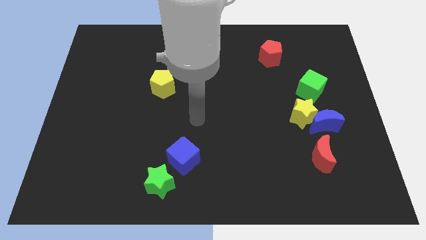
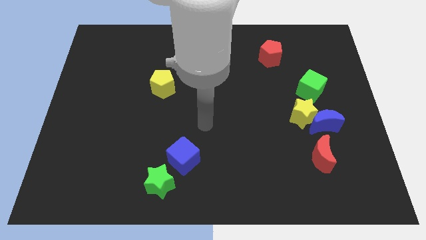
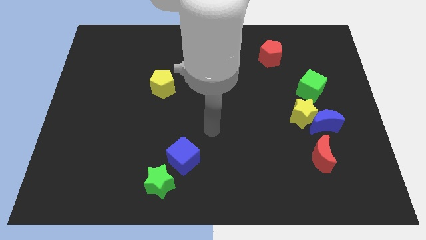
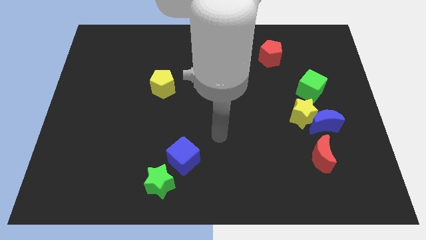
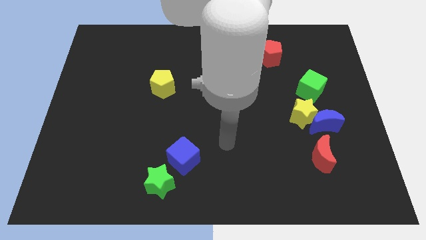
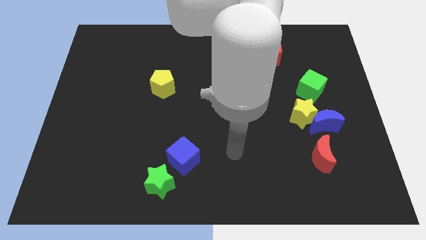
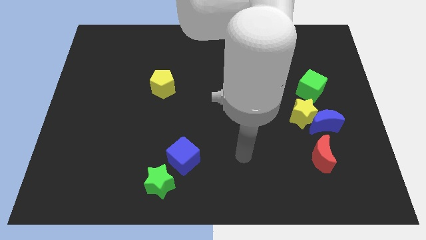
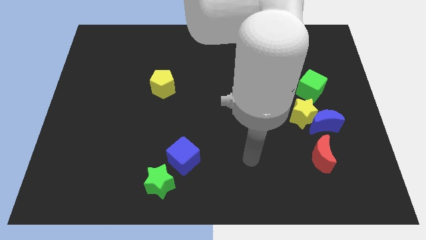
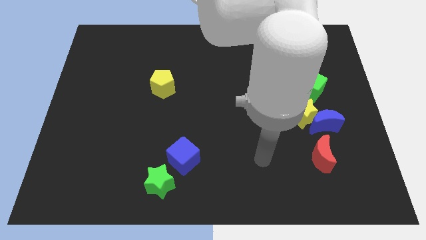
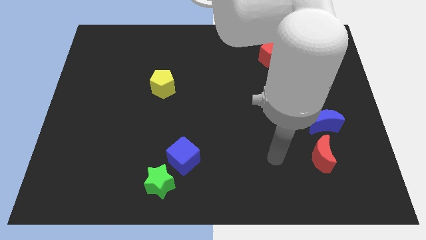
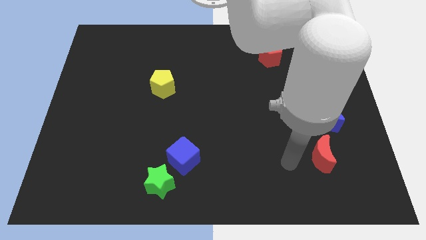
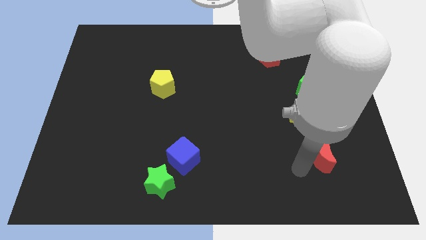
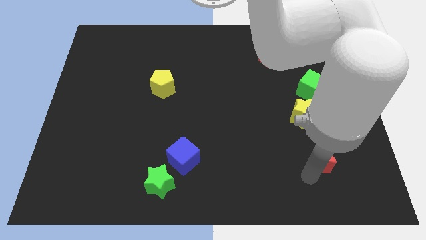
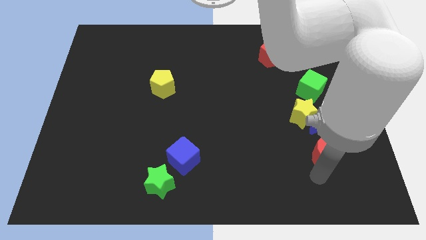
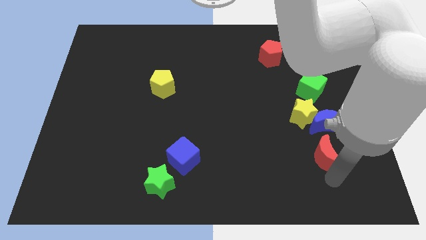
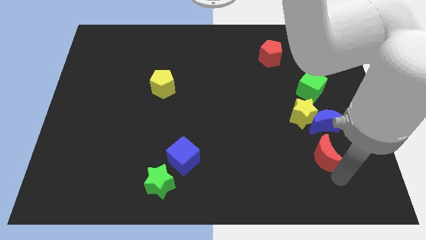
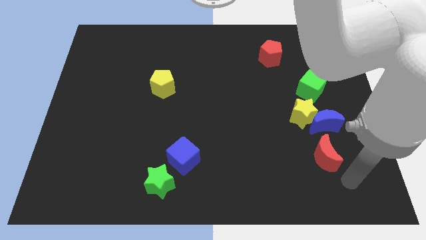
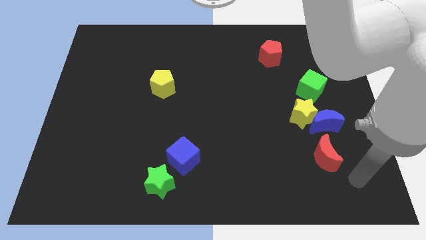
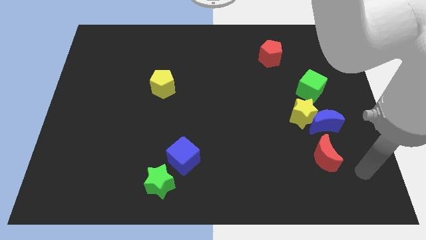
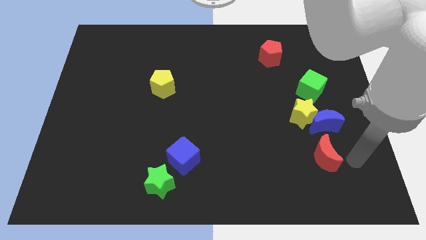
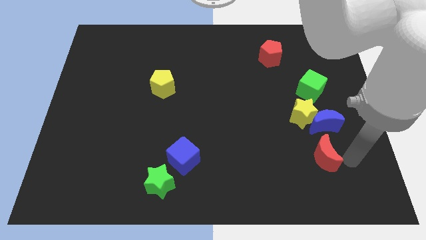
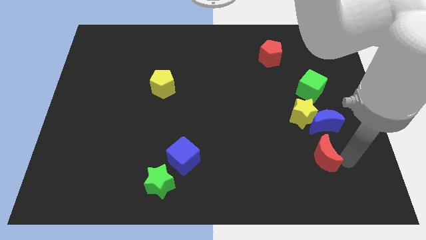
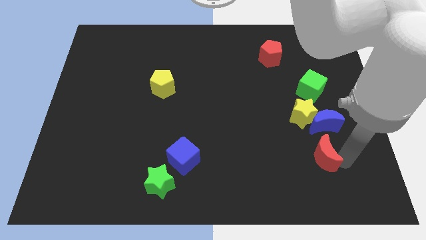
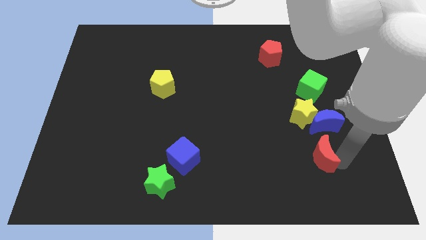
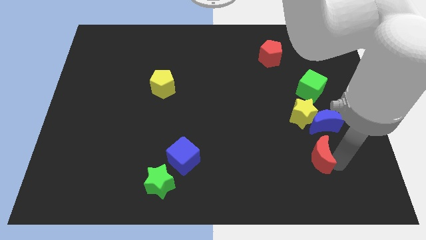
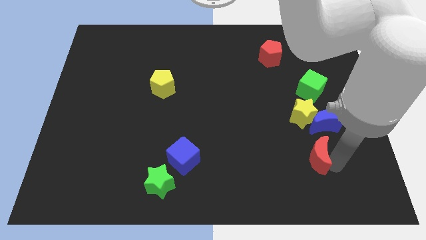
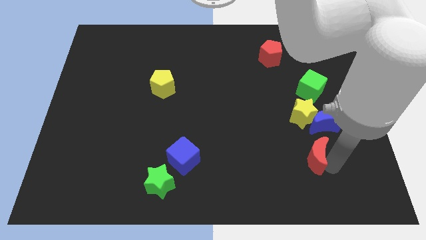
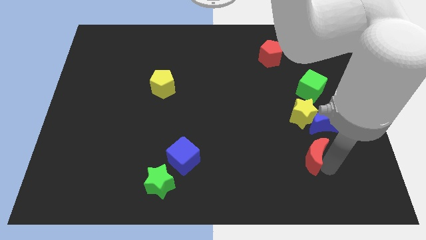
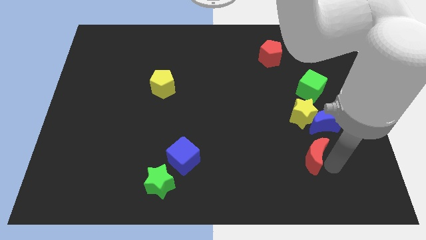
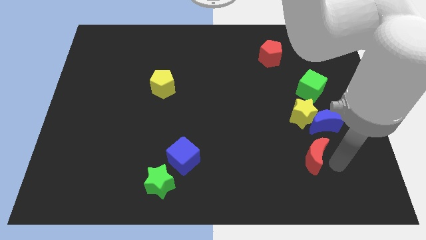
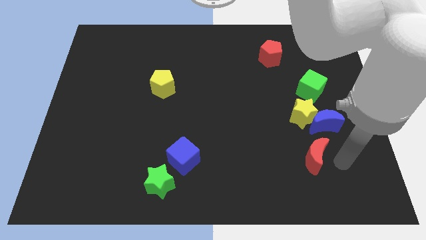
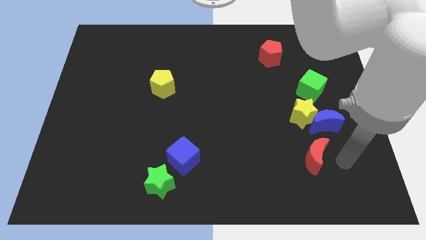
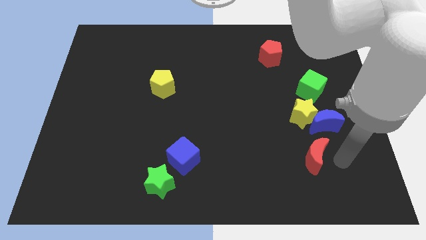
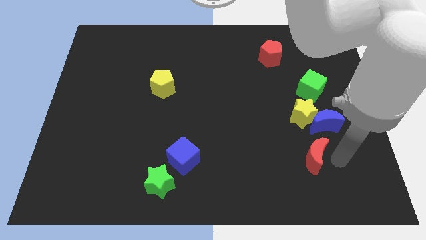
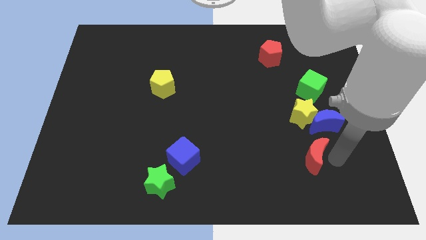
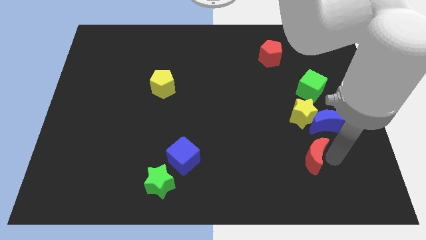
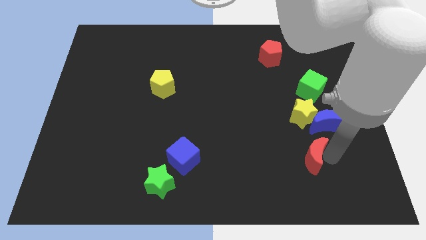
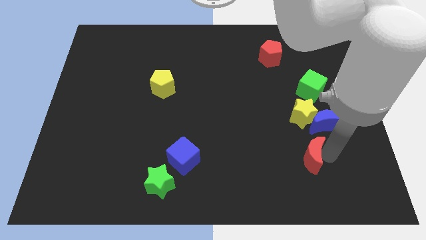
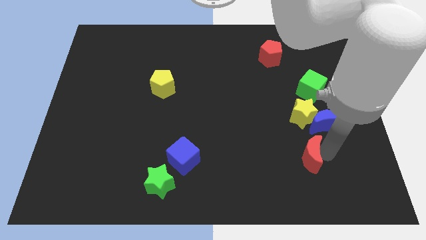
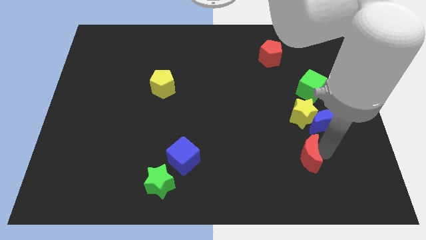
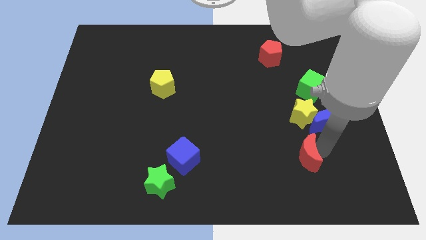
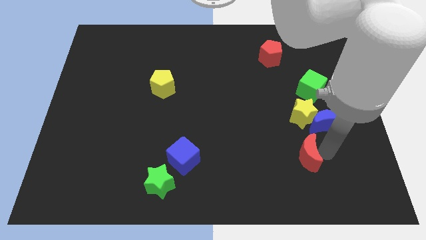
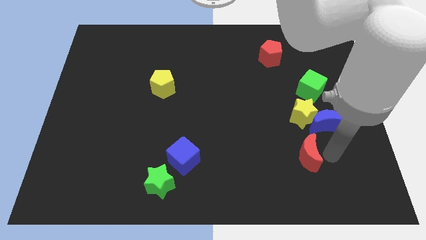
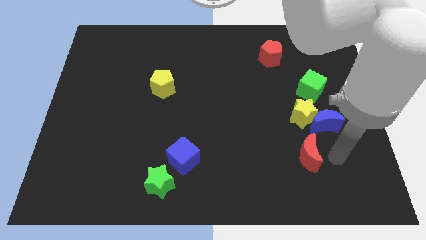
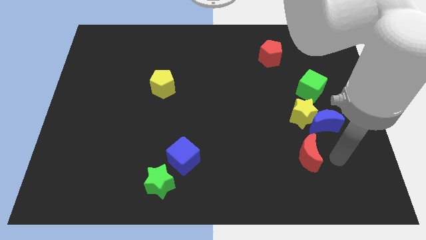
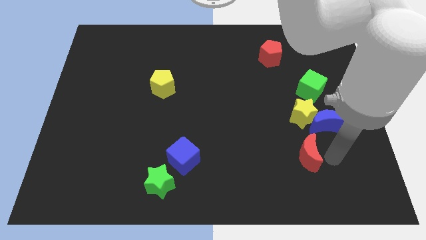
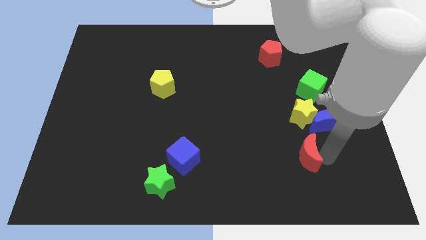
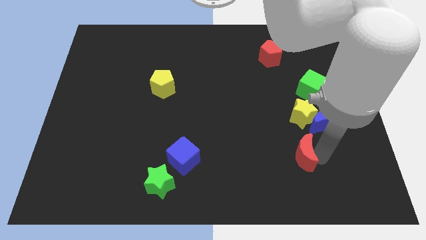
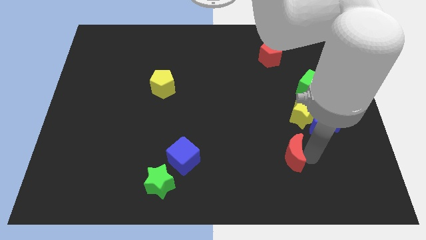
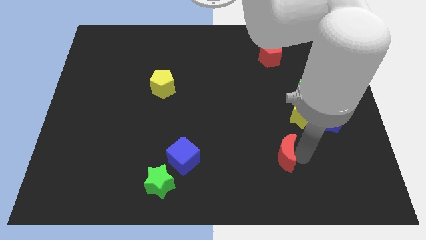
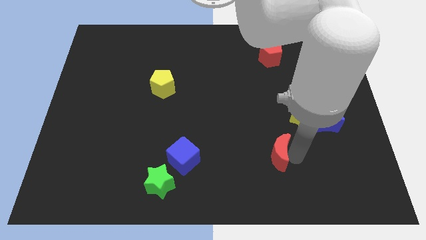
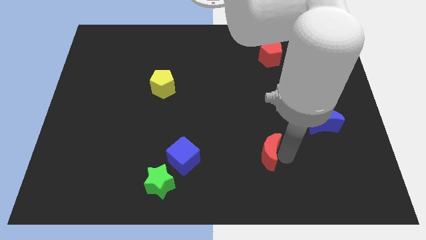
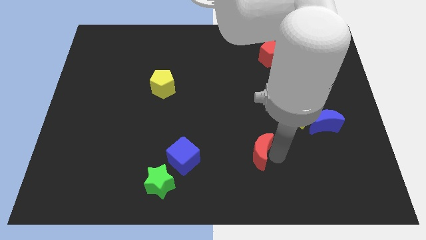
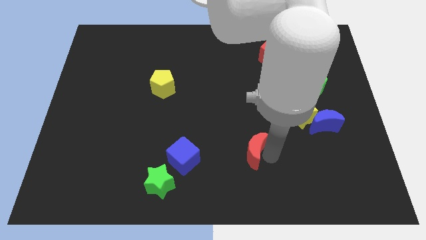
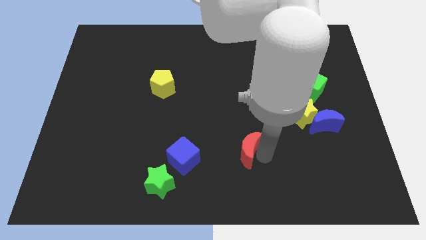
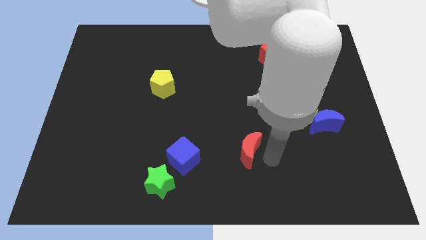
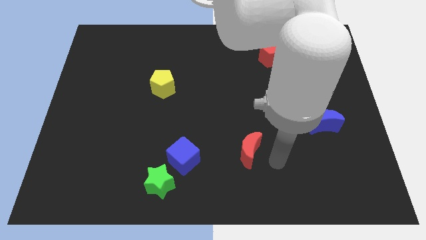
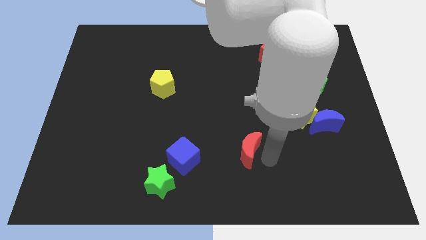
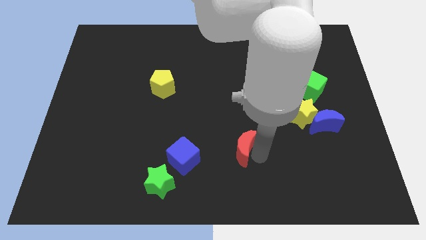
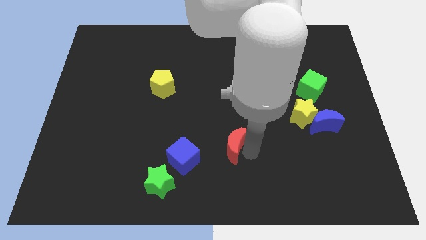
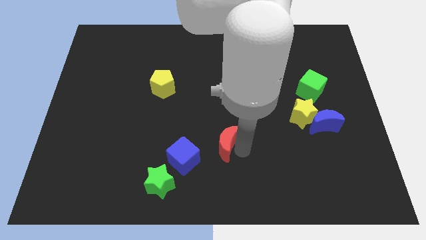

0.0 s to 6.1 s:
slide the red moon to the top right of the blue cube

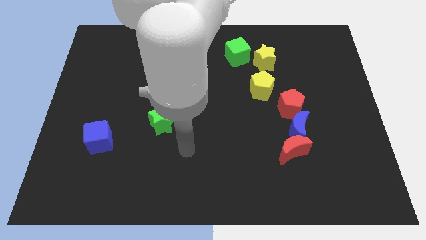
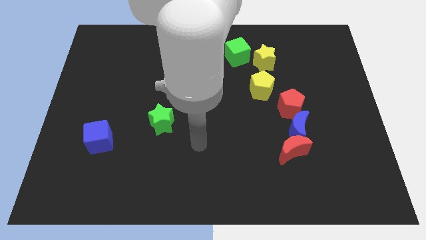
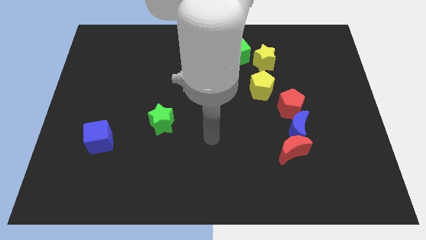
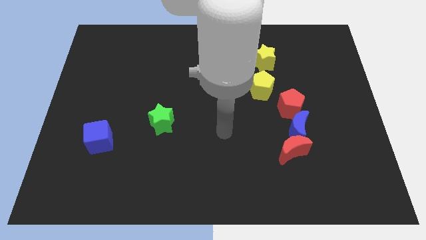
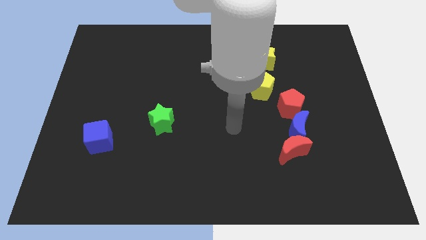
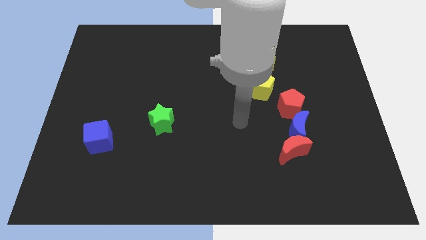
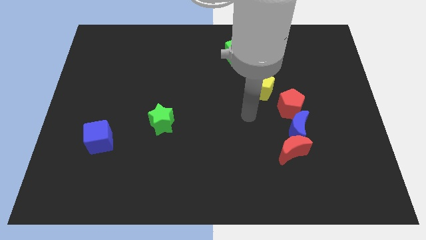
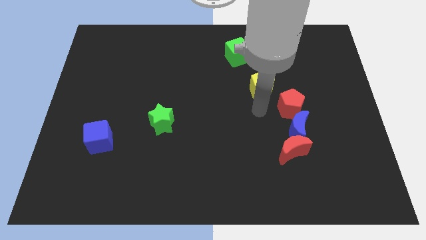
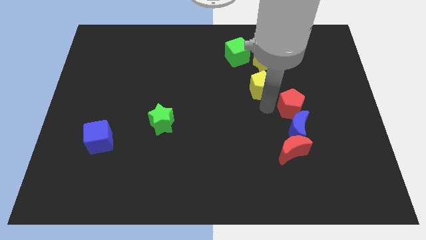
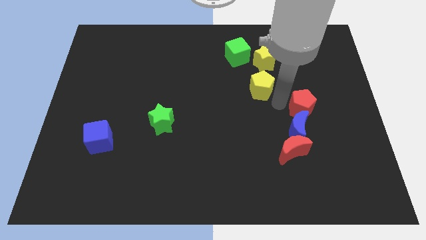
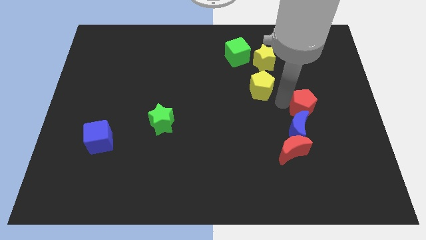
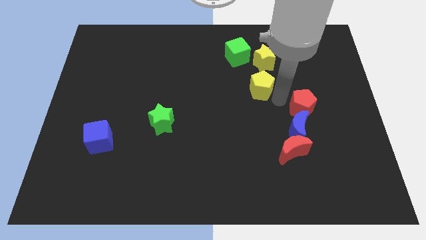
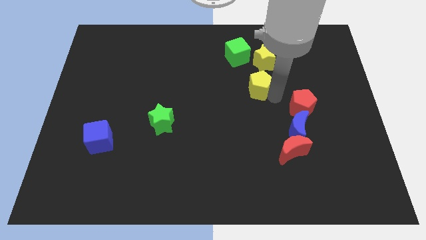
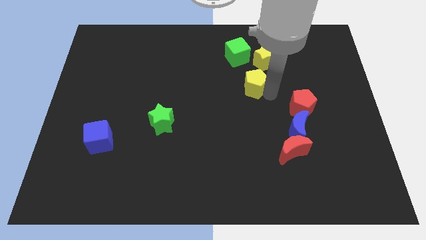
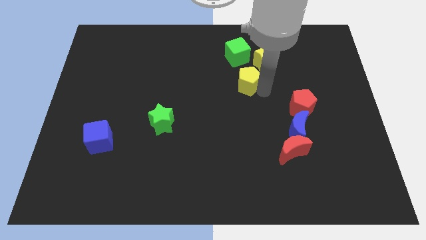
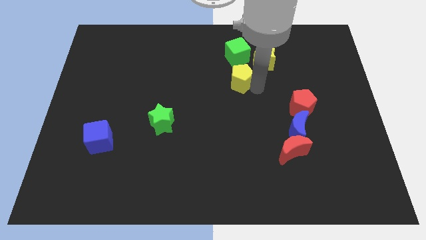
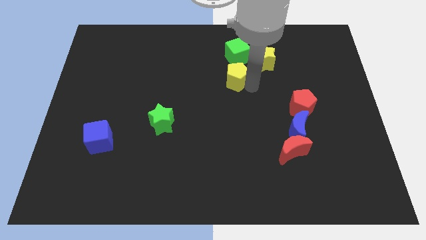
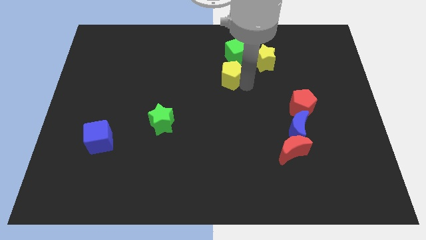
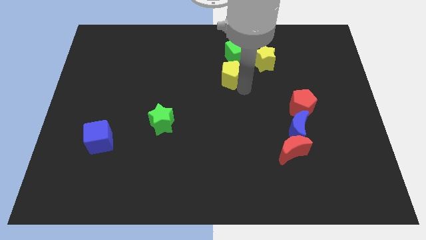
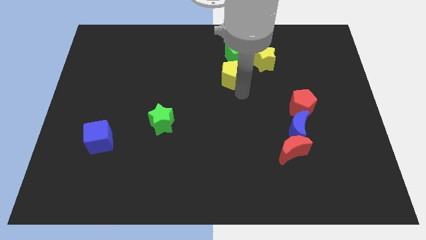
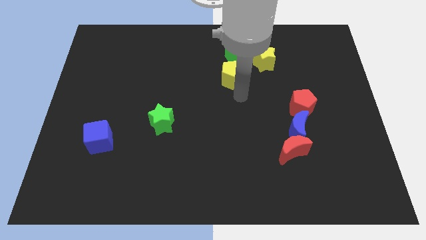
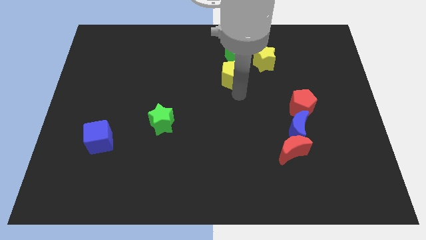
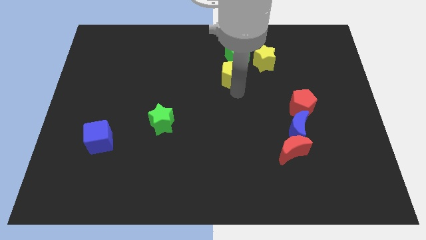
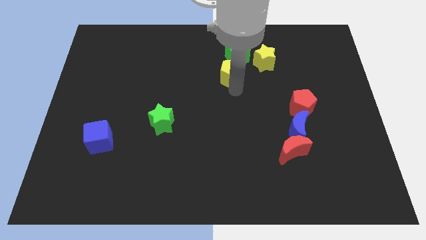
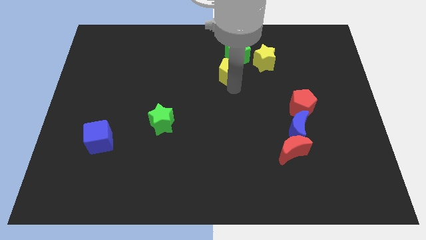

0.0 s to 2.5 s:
slide the yellow pentagon to the left side of the yellow star
